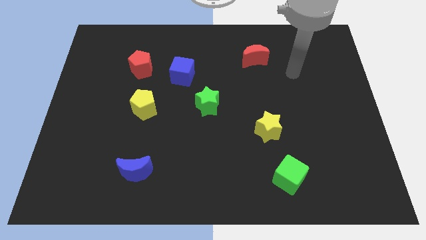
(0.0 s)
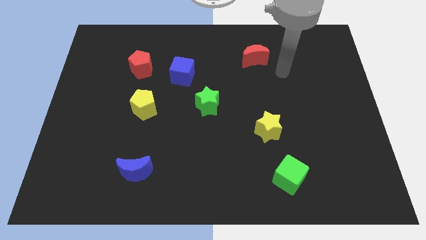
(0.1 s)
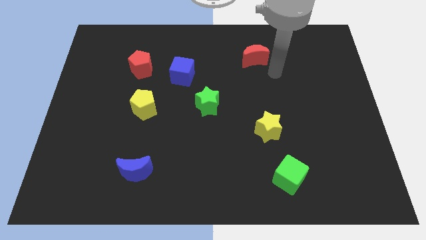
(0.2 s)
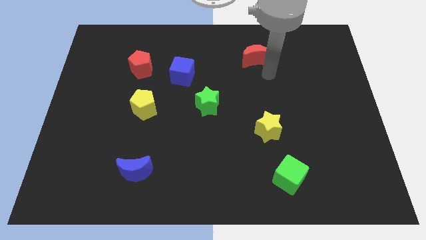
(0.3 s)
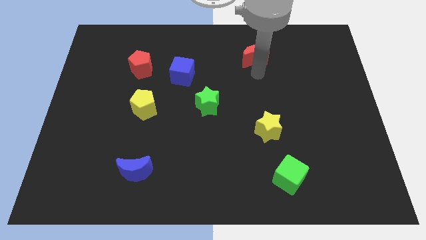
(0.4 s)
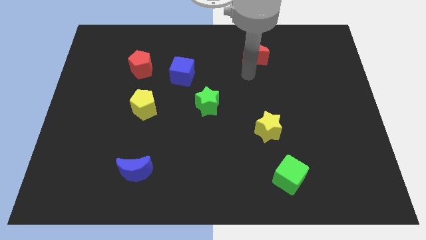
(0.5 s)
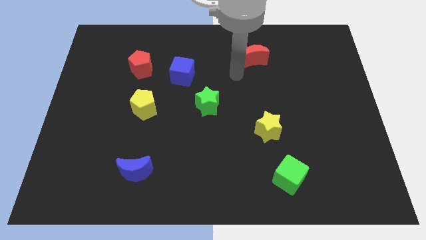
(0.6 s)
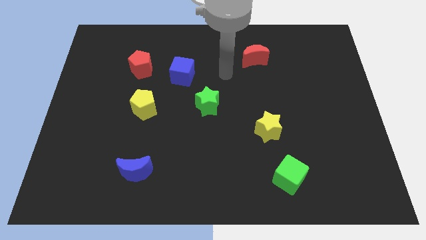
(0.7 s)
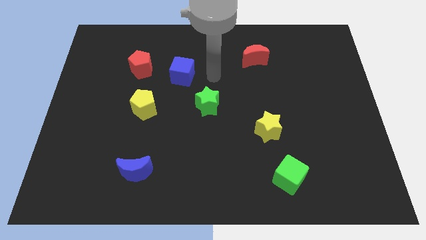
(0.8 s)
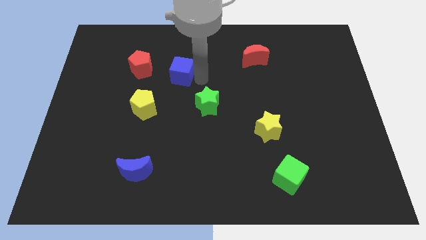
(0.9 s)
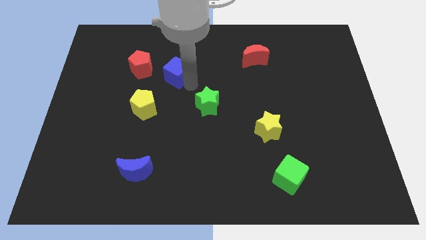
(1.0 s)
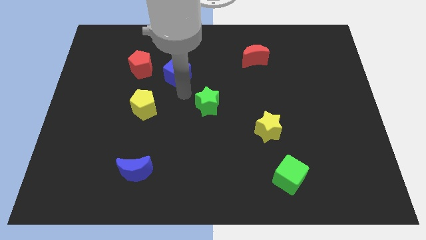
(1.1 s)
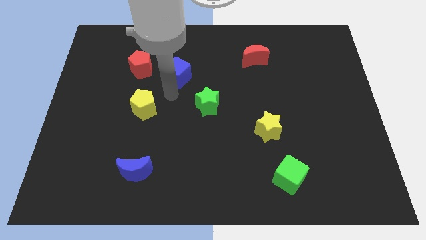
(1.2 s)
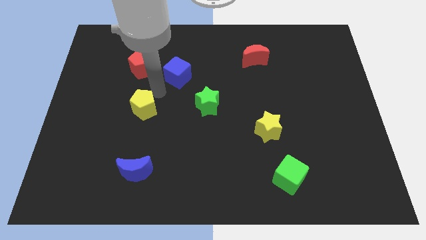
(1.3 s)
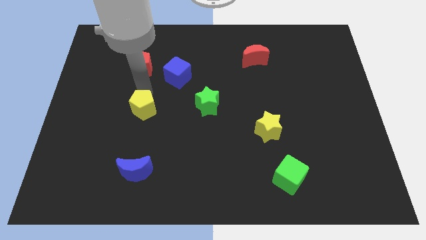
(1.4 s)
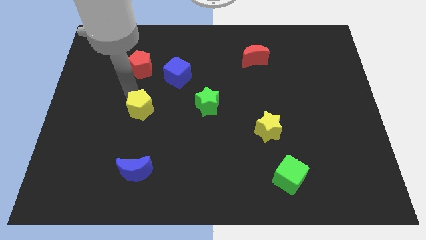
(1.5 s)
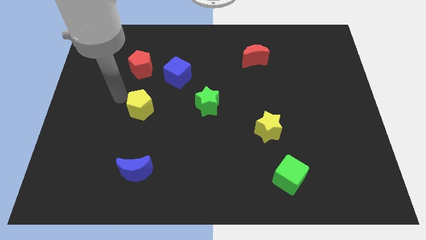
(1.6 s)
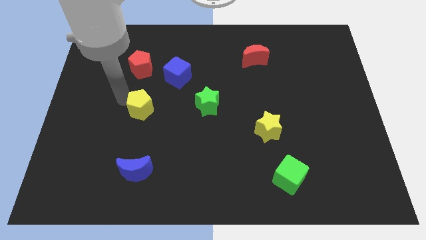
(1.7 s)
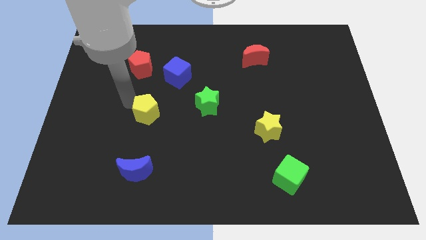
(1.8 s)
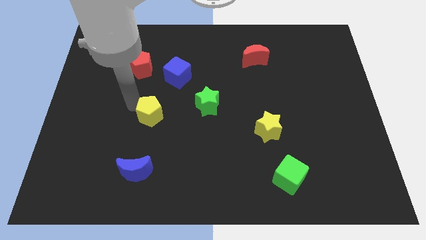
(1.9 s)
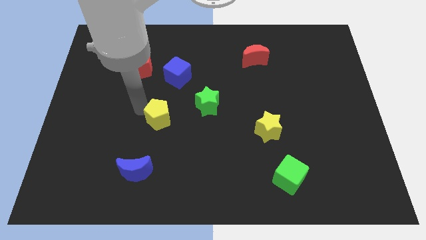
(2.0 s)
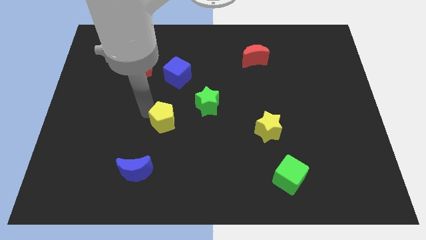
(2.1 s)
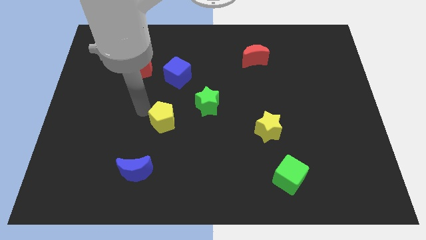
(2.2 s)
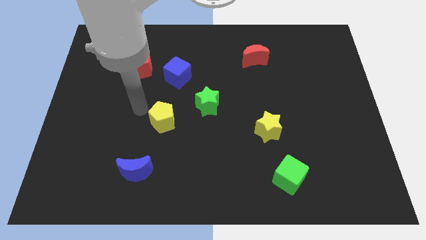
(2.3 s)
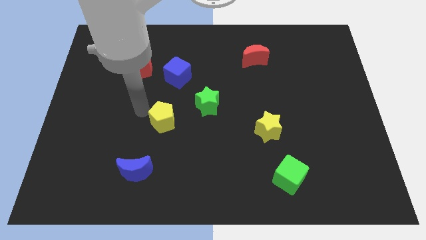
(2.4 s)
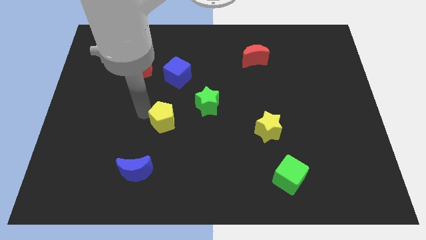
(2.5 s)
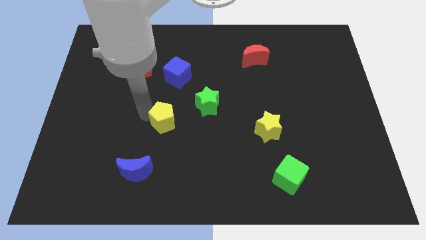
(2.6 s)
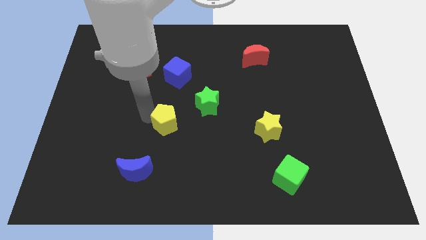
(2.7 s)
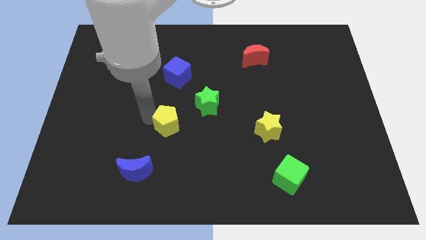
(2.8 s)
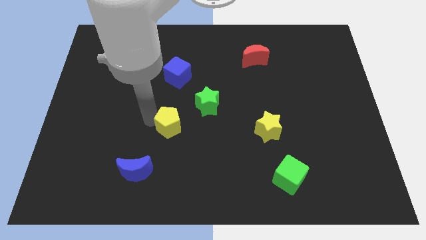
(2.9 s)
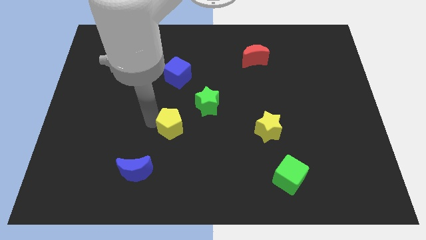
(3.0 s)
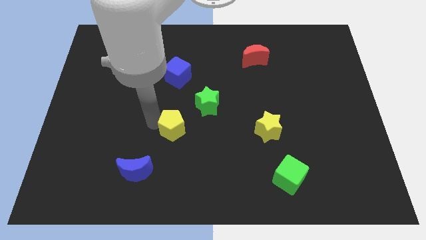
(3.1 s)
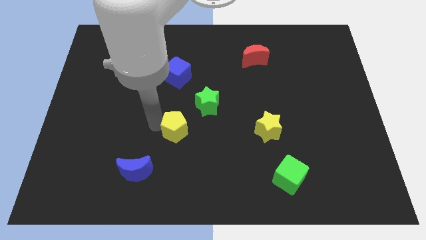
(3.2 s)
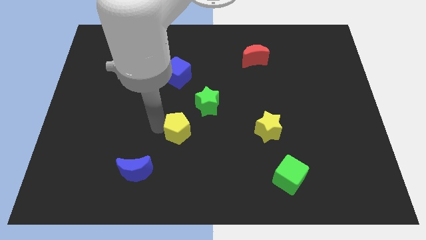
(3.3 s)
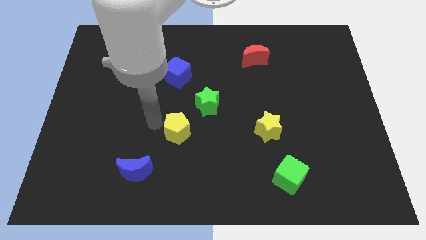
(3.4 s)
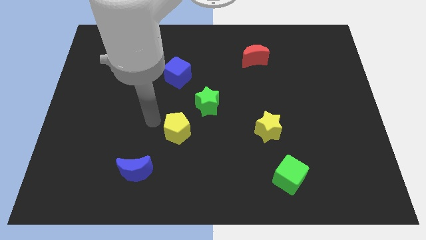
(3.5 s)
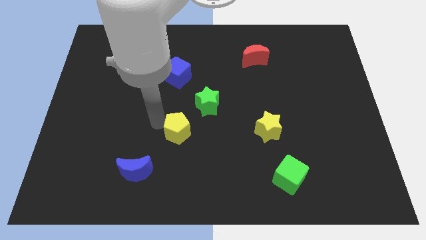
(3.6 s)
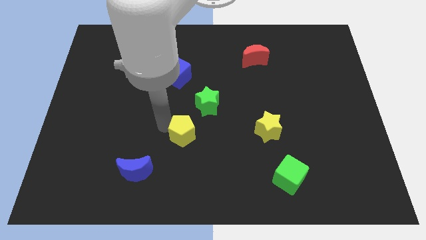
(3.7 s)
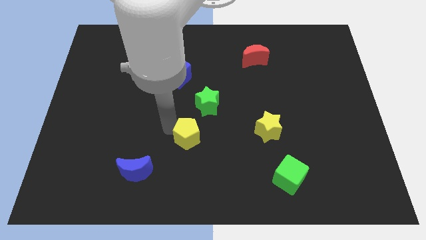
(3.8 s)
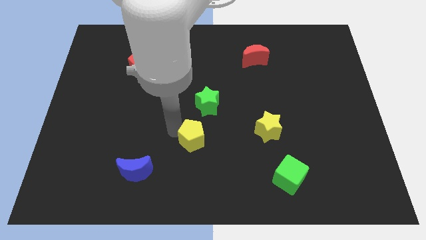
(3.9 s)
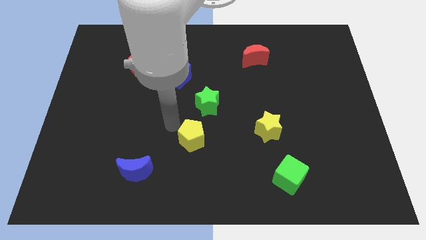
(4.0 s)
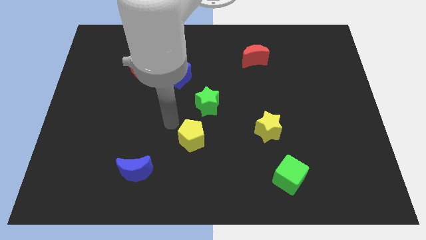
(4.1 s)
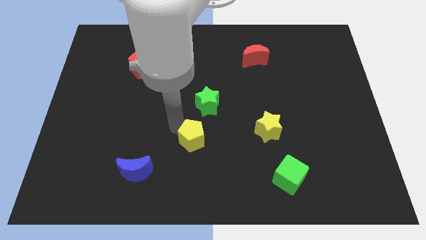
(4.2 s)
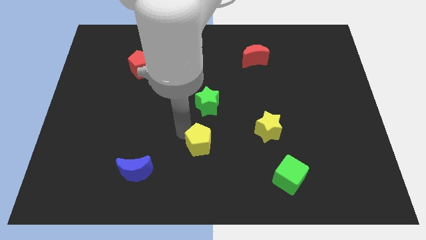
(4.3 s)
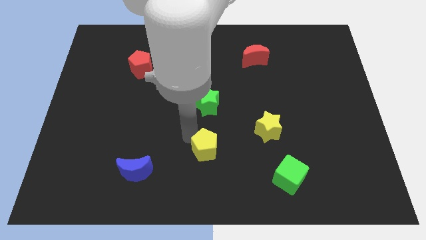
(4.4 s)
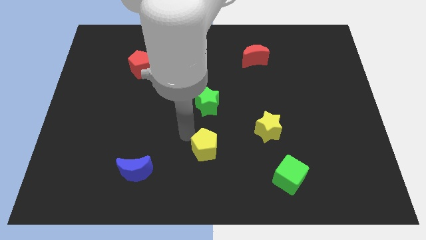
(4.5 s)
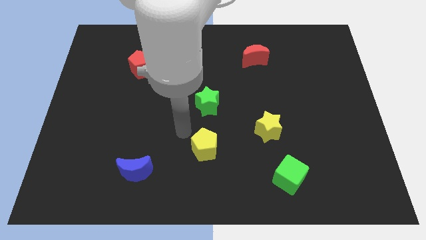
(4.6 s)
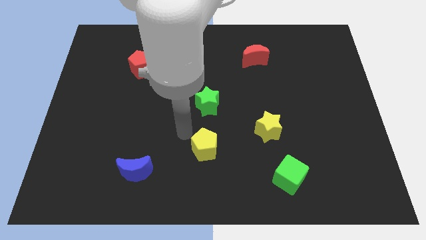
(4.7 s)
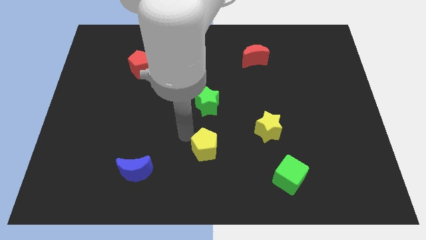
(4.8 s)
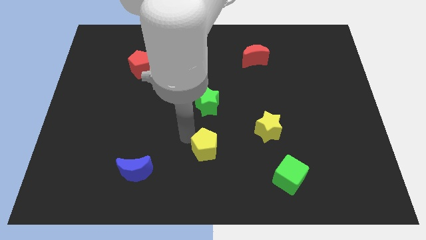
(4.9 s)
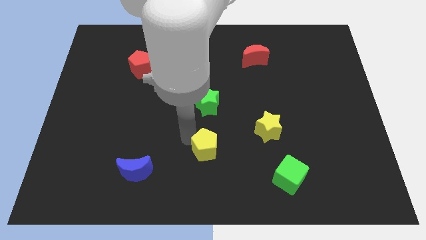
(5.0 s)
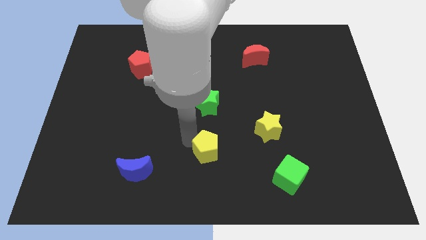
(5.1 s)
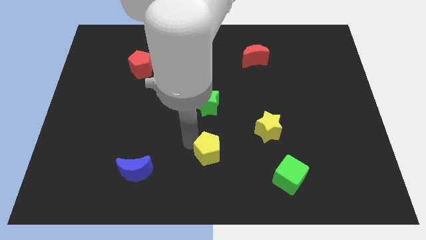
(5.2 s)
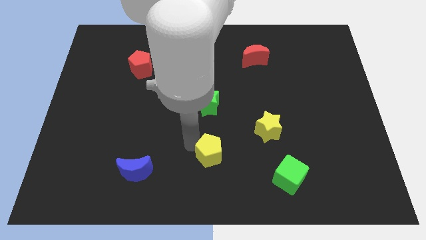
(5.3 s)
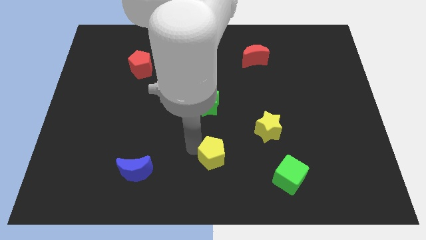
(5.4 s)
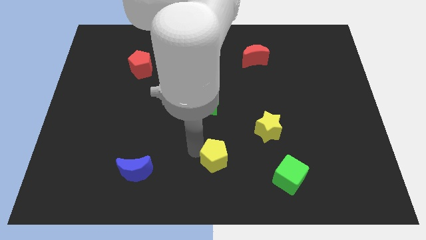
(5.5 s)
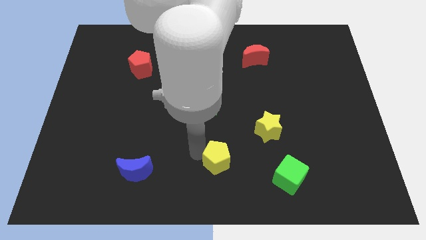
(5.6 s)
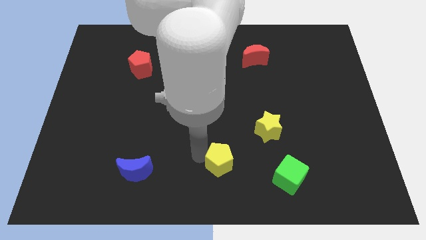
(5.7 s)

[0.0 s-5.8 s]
push the yellow pentagon to the left side of the green cube

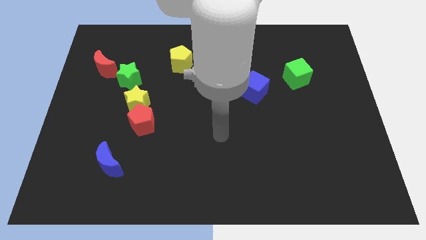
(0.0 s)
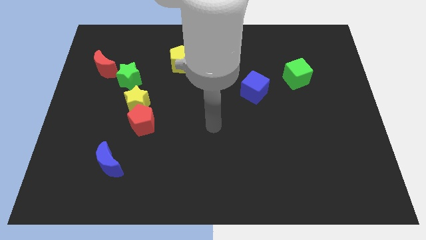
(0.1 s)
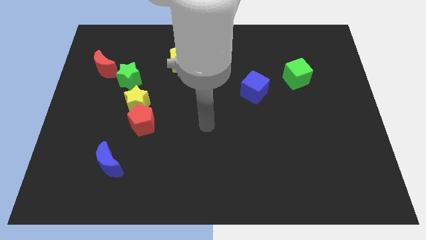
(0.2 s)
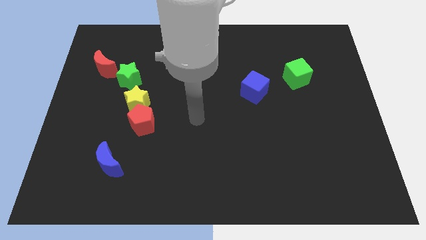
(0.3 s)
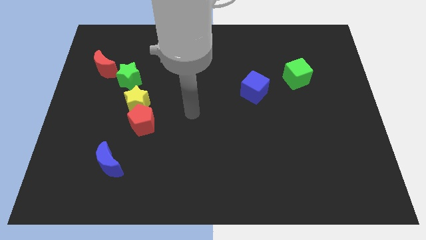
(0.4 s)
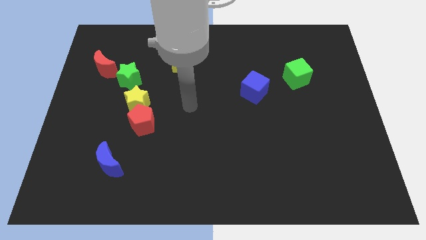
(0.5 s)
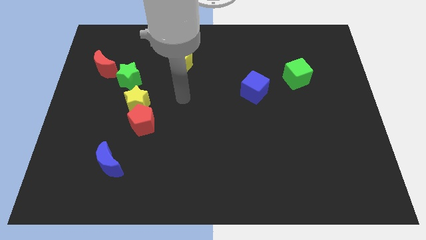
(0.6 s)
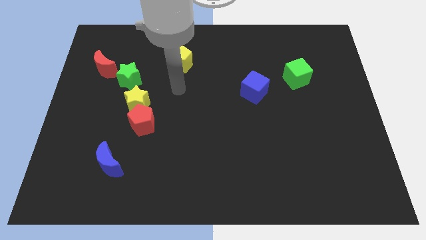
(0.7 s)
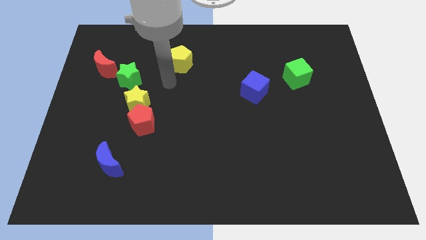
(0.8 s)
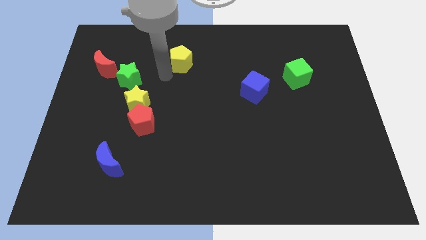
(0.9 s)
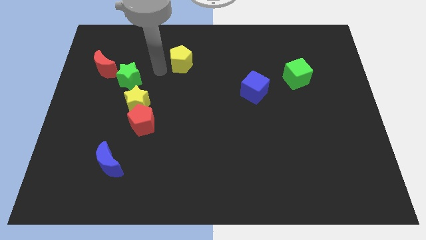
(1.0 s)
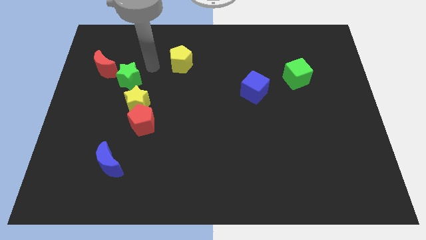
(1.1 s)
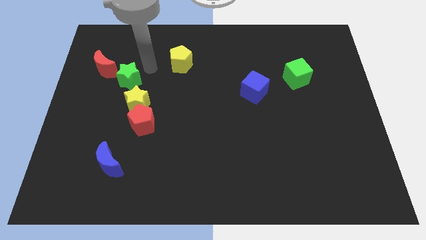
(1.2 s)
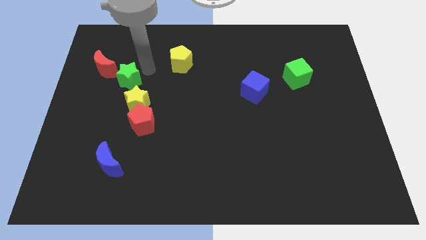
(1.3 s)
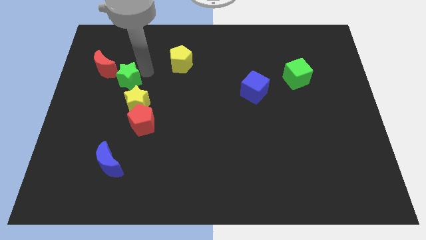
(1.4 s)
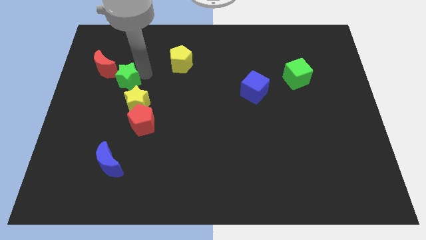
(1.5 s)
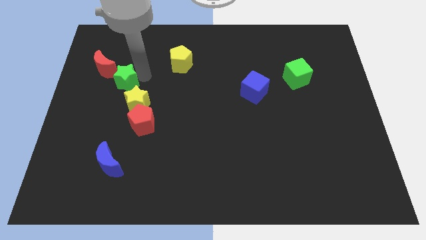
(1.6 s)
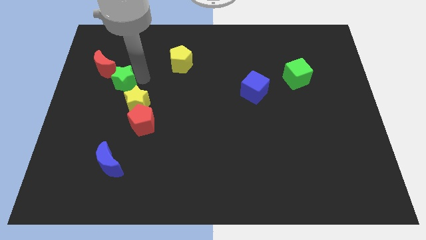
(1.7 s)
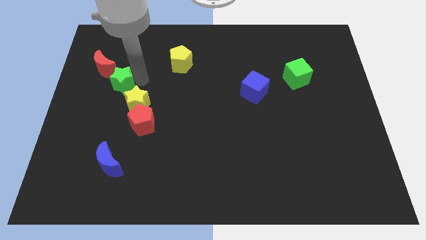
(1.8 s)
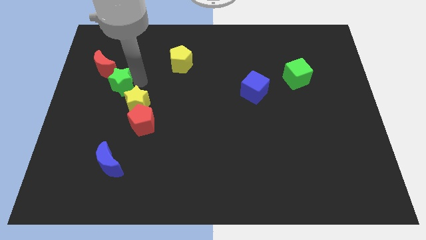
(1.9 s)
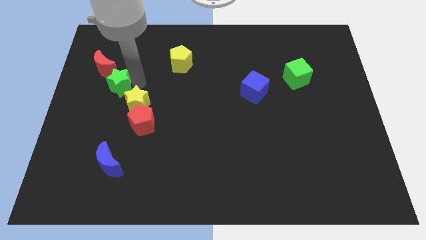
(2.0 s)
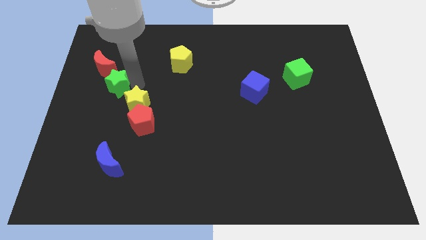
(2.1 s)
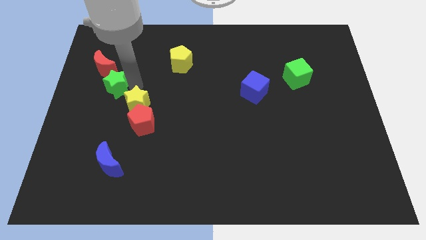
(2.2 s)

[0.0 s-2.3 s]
push the green star to the left side of the yellow star

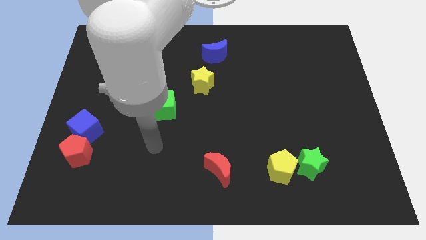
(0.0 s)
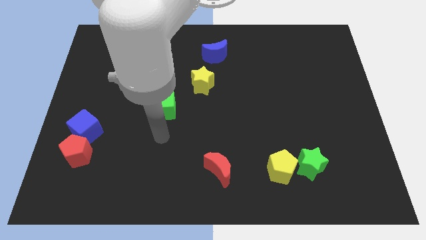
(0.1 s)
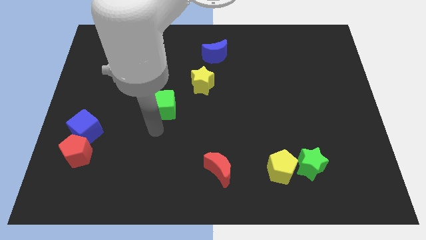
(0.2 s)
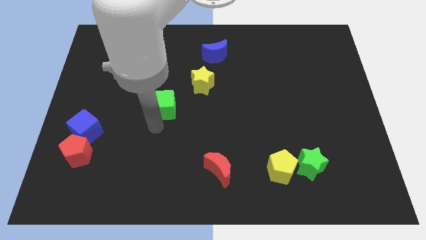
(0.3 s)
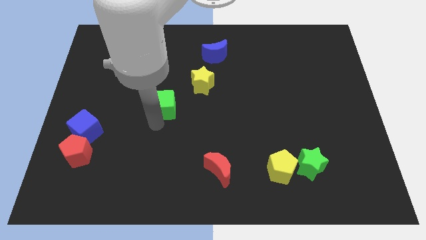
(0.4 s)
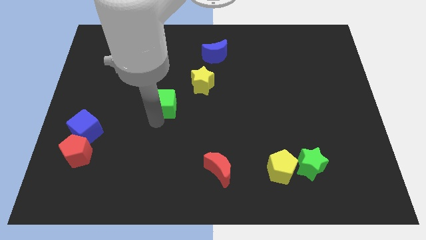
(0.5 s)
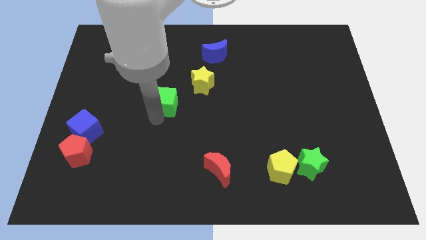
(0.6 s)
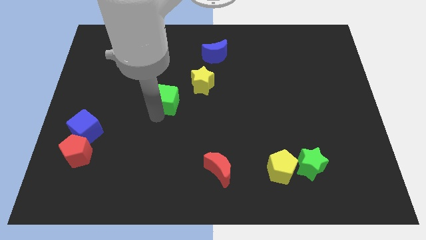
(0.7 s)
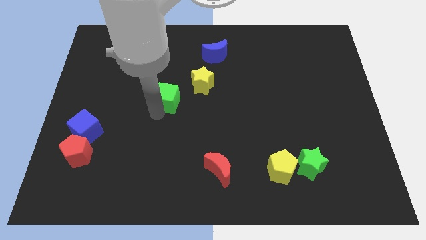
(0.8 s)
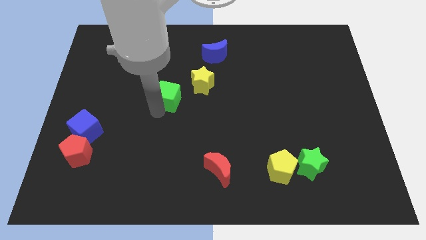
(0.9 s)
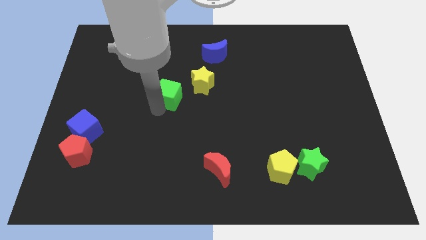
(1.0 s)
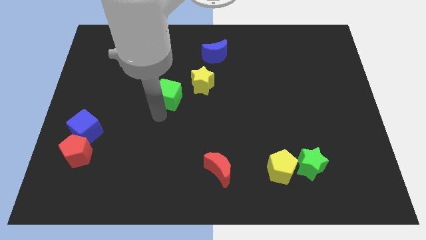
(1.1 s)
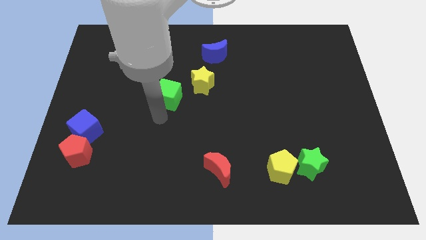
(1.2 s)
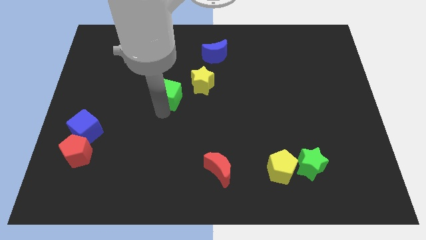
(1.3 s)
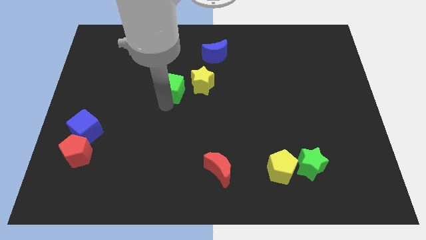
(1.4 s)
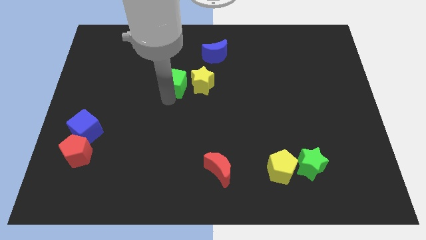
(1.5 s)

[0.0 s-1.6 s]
slide the green cube to the top left side of the yellow star
